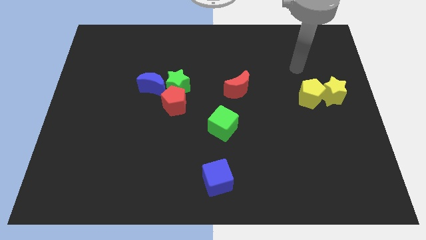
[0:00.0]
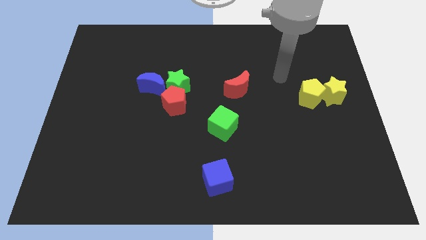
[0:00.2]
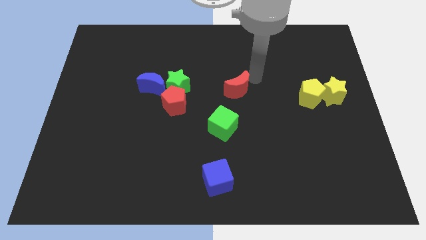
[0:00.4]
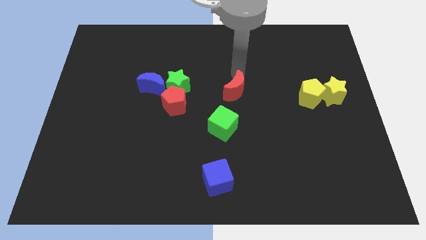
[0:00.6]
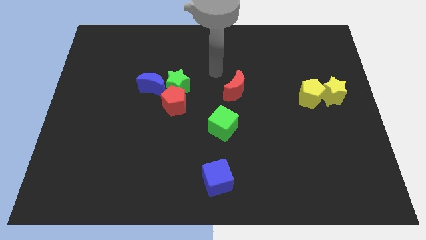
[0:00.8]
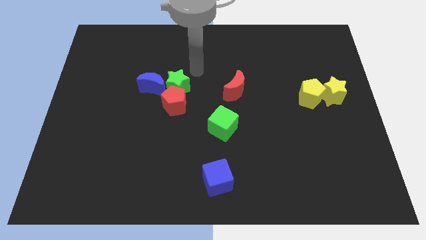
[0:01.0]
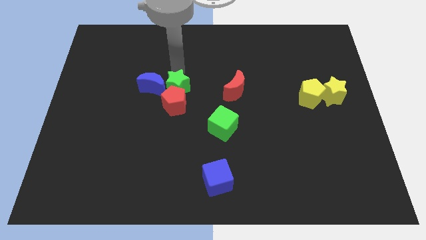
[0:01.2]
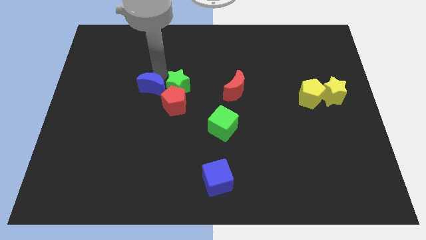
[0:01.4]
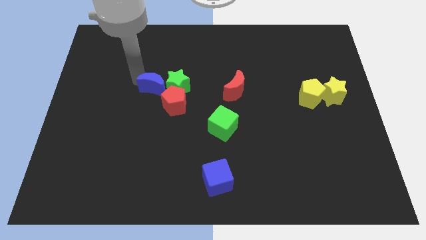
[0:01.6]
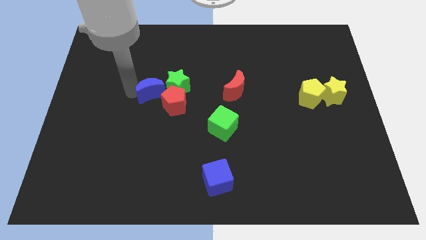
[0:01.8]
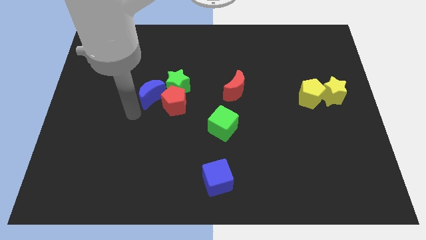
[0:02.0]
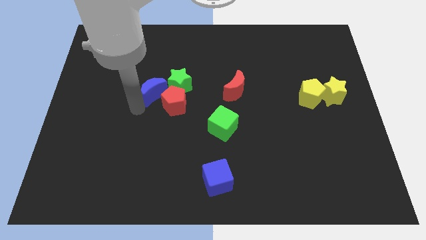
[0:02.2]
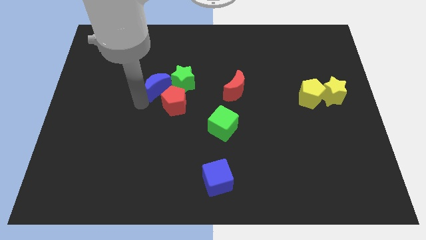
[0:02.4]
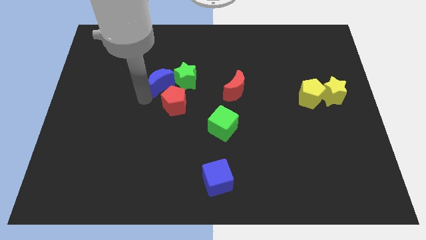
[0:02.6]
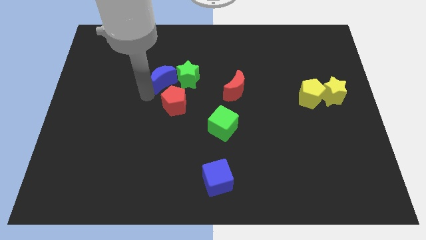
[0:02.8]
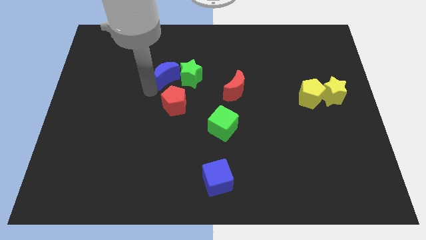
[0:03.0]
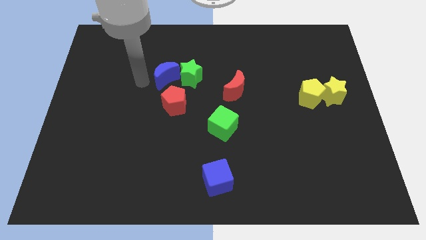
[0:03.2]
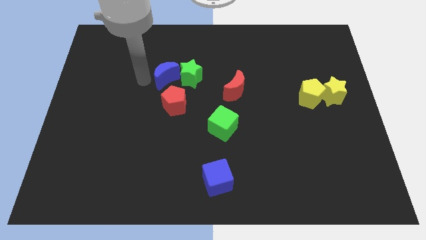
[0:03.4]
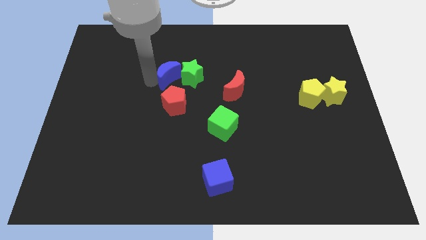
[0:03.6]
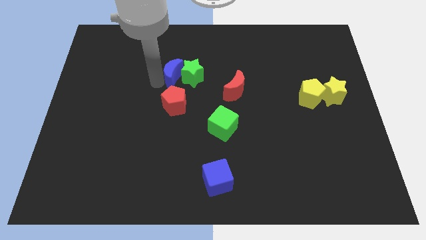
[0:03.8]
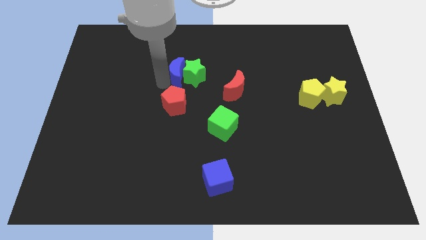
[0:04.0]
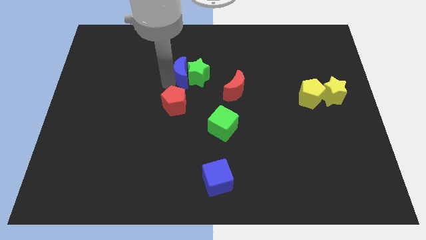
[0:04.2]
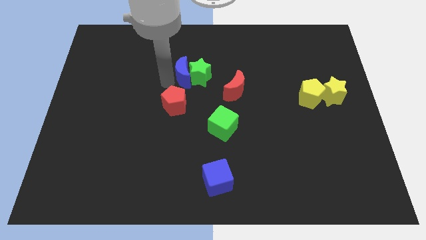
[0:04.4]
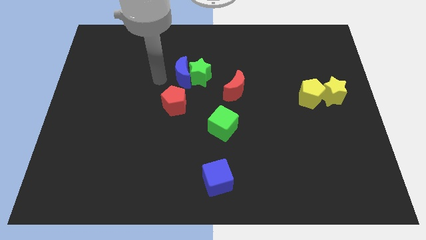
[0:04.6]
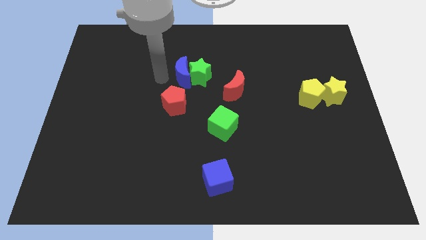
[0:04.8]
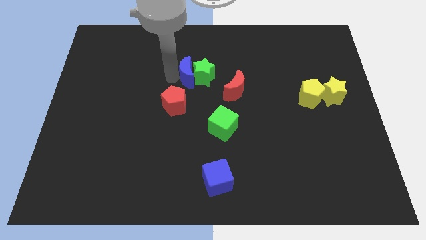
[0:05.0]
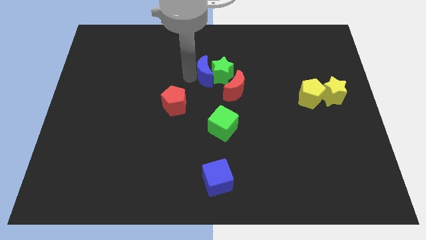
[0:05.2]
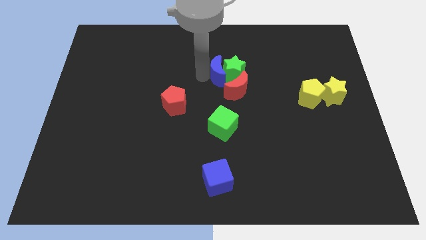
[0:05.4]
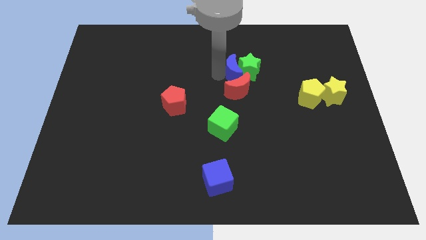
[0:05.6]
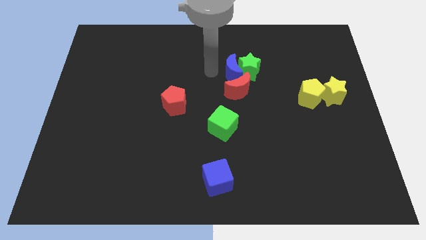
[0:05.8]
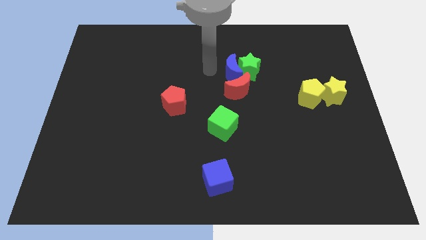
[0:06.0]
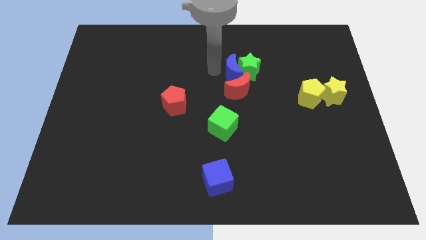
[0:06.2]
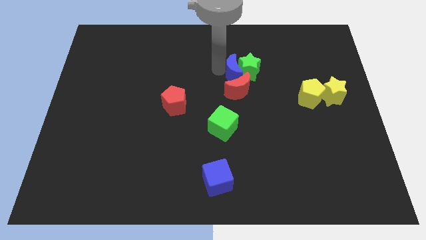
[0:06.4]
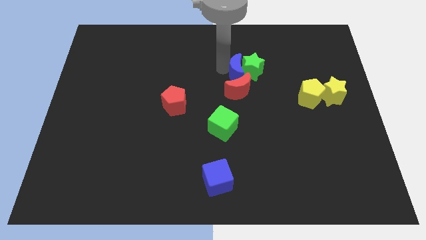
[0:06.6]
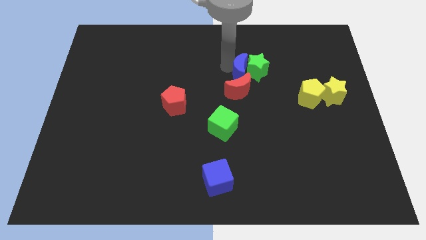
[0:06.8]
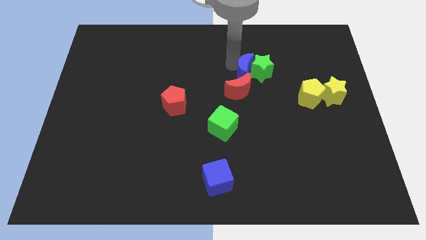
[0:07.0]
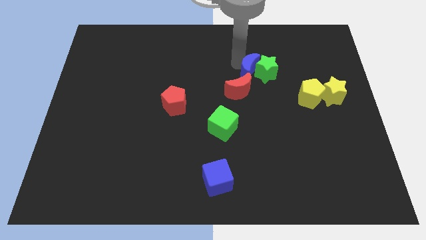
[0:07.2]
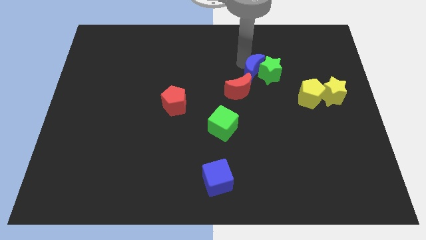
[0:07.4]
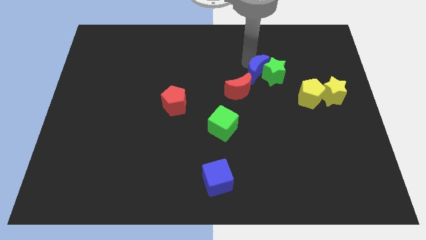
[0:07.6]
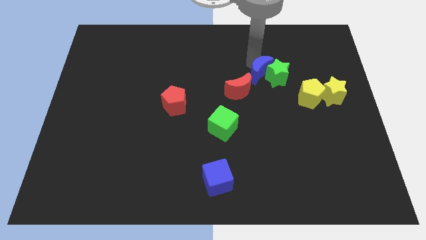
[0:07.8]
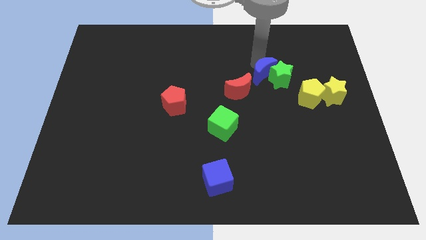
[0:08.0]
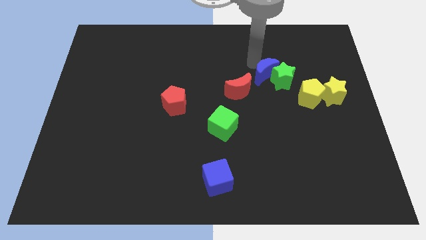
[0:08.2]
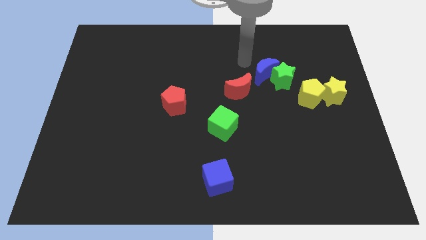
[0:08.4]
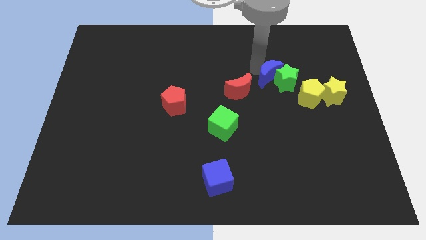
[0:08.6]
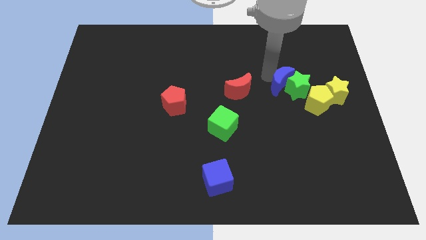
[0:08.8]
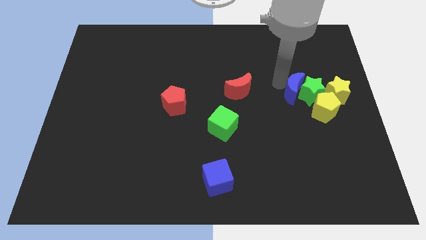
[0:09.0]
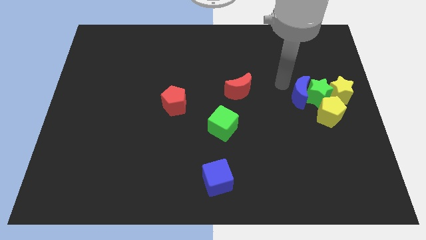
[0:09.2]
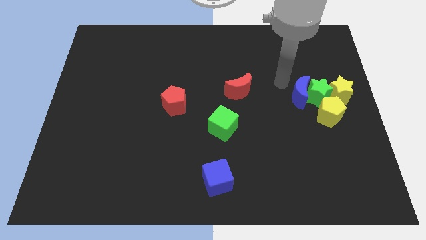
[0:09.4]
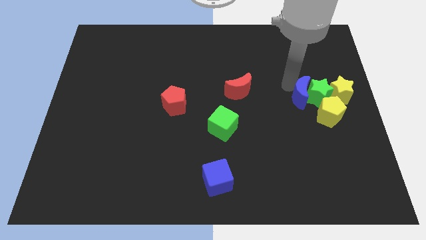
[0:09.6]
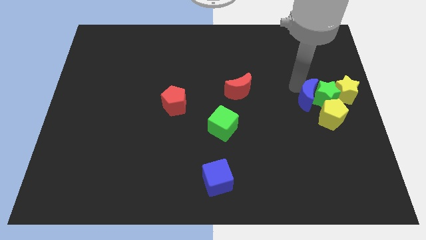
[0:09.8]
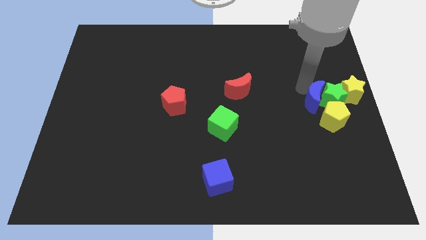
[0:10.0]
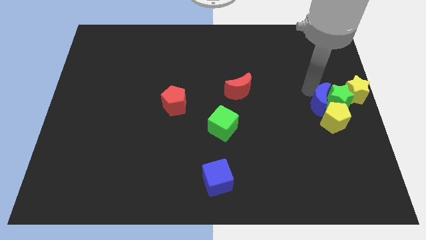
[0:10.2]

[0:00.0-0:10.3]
push the blue moon next to the yellow pentagon

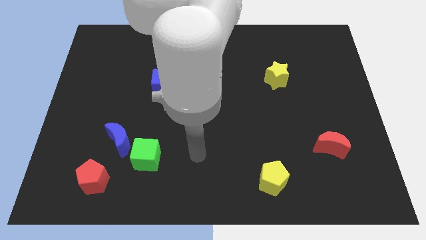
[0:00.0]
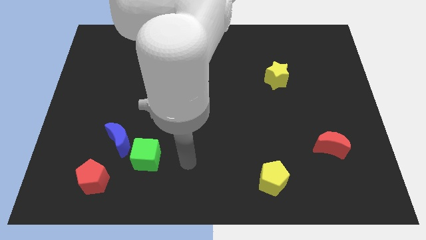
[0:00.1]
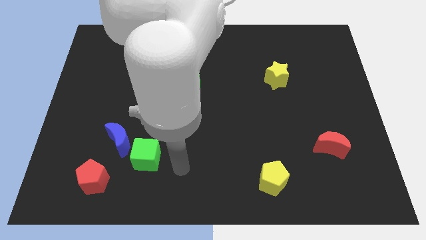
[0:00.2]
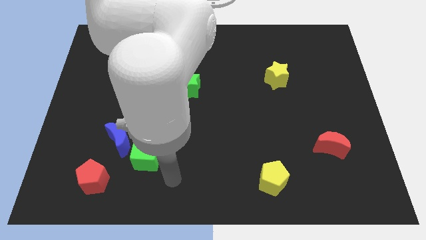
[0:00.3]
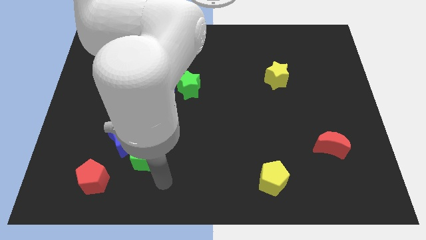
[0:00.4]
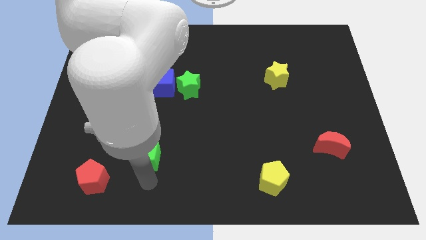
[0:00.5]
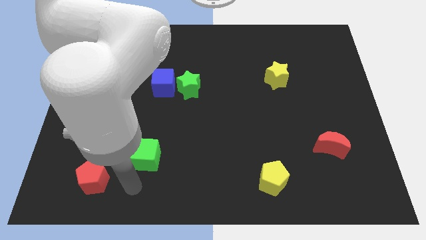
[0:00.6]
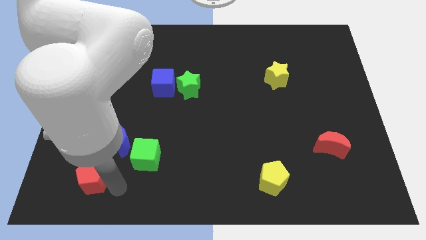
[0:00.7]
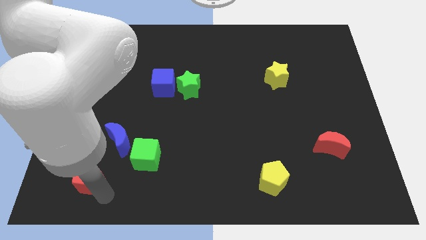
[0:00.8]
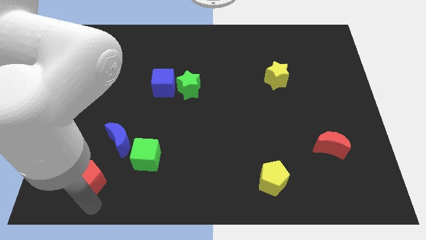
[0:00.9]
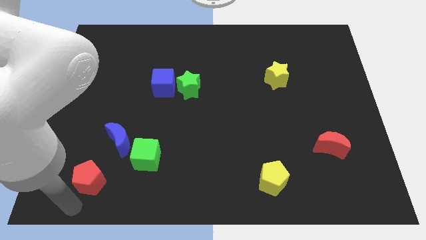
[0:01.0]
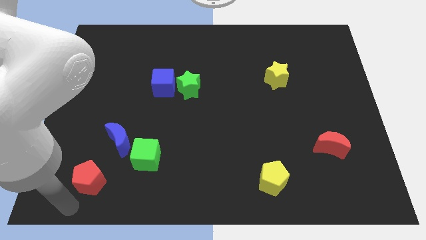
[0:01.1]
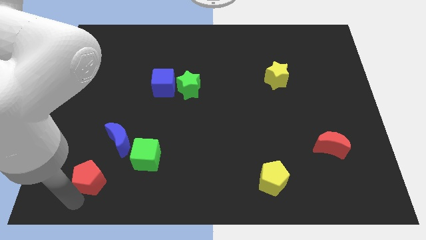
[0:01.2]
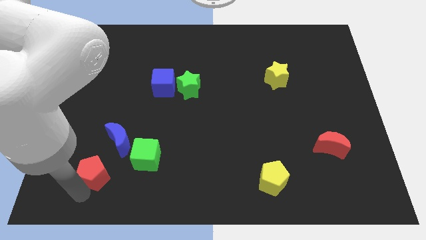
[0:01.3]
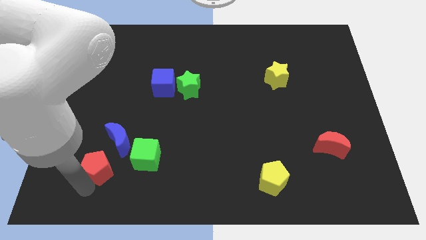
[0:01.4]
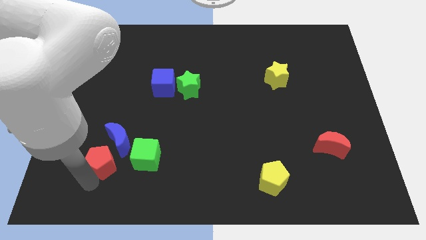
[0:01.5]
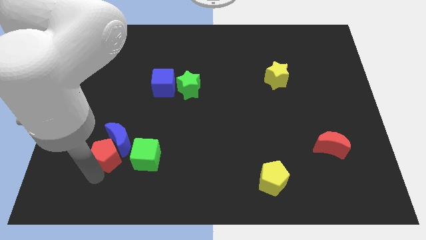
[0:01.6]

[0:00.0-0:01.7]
put the red pentagon towards the blue moon

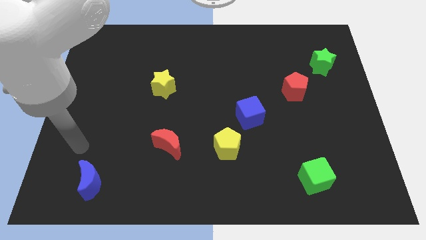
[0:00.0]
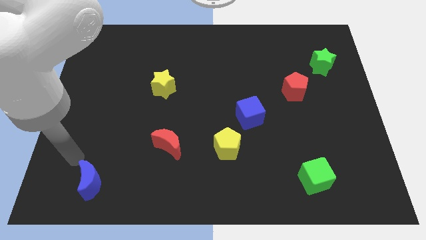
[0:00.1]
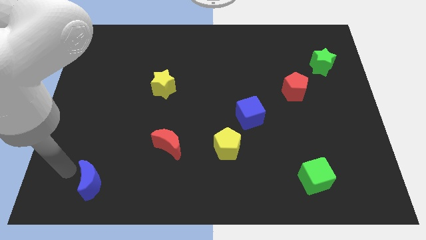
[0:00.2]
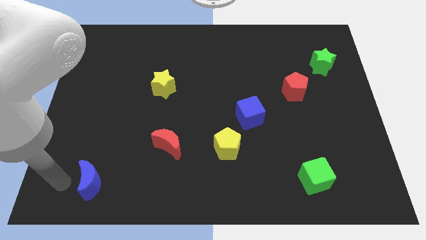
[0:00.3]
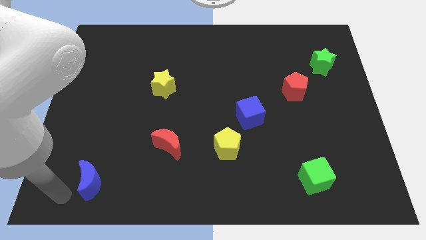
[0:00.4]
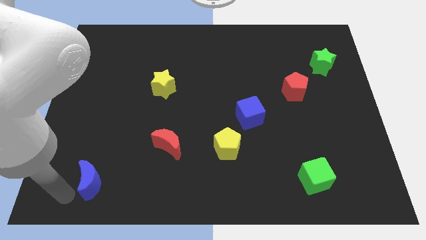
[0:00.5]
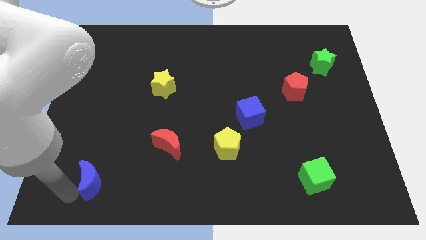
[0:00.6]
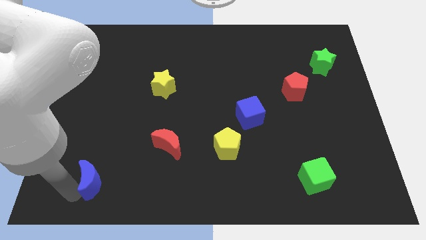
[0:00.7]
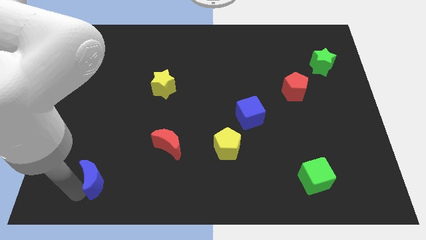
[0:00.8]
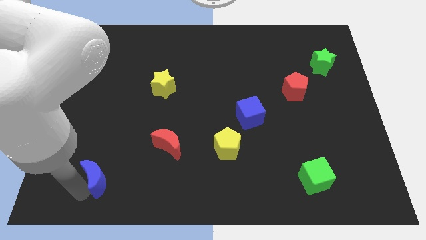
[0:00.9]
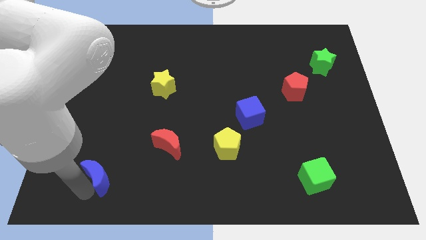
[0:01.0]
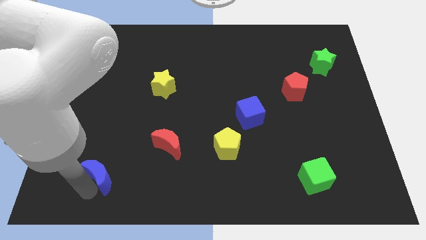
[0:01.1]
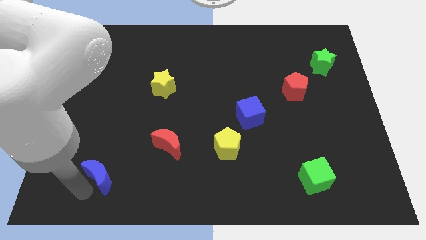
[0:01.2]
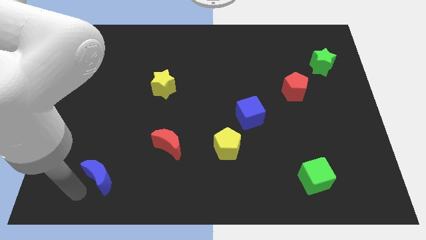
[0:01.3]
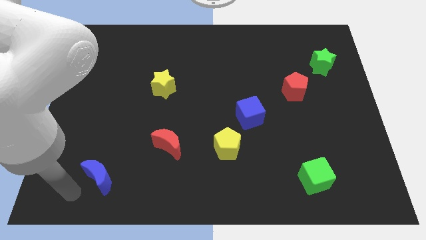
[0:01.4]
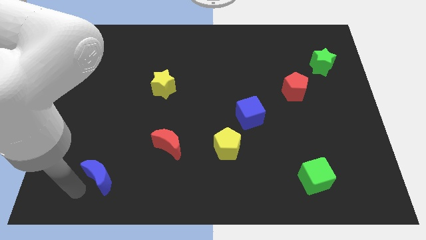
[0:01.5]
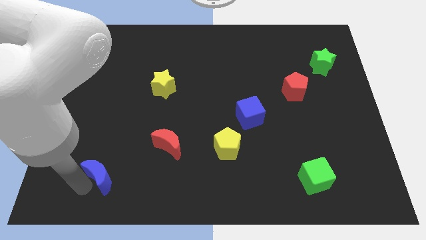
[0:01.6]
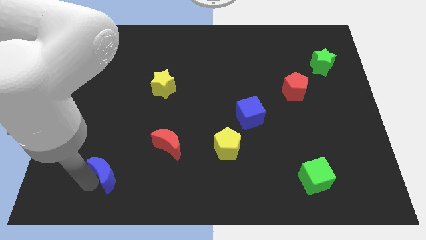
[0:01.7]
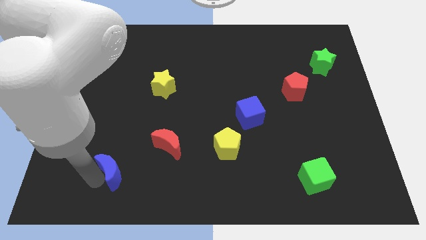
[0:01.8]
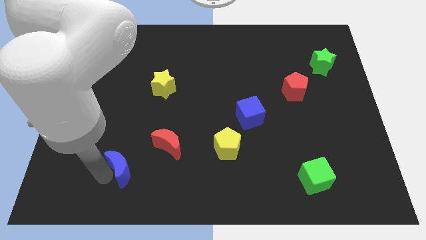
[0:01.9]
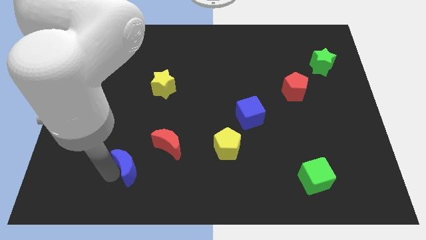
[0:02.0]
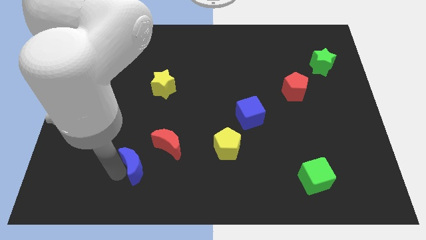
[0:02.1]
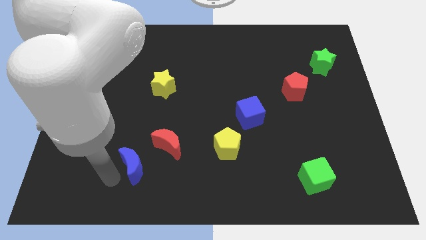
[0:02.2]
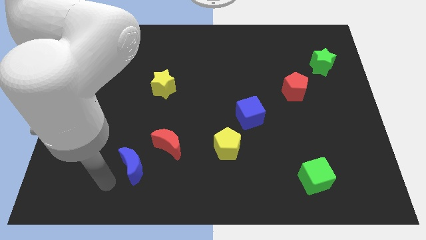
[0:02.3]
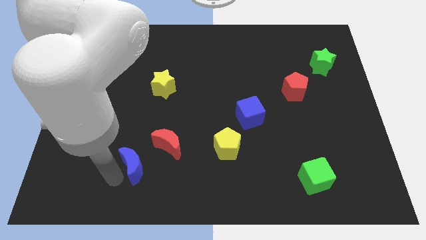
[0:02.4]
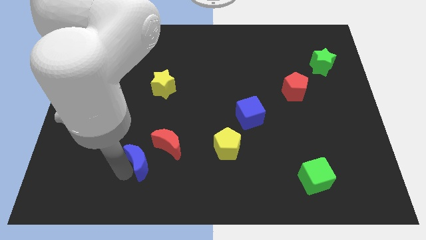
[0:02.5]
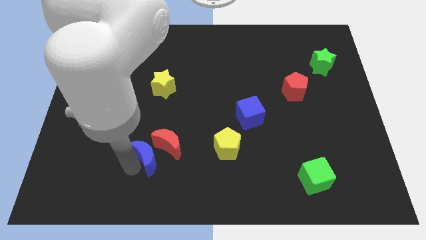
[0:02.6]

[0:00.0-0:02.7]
move the blue moon to the red moon
